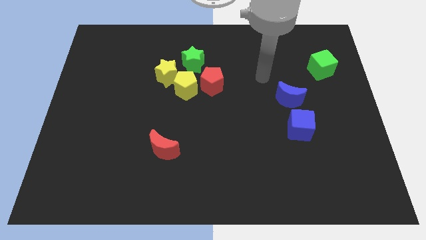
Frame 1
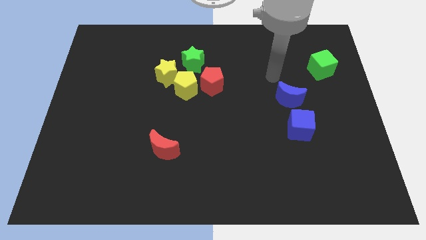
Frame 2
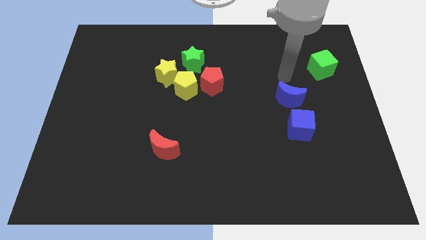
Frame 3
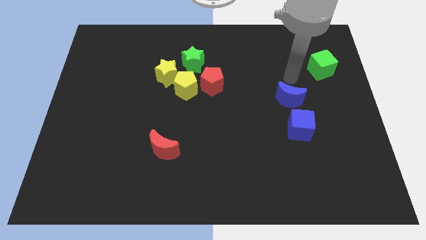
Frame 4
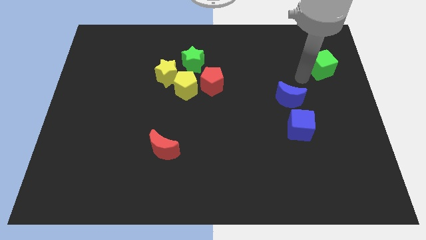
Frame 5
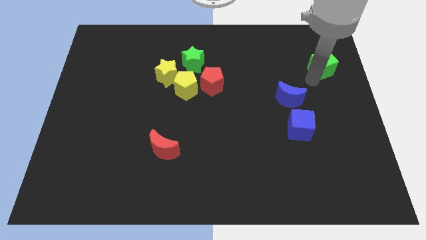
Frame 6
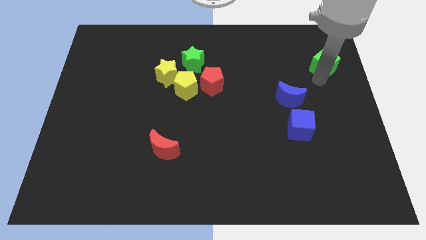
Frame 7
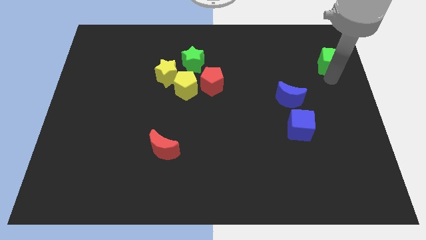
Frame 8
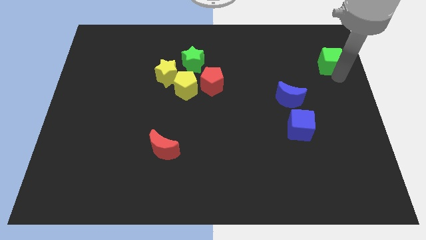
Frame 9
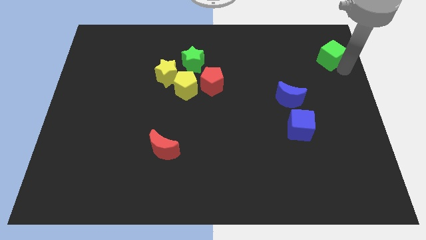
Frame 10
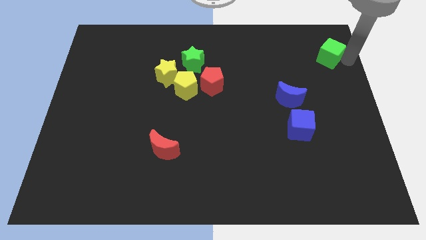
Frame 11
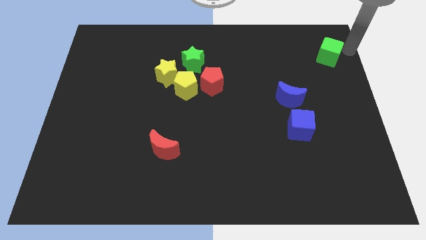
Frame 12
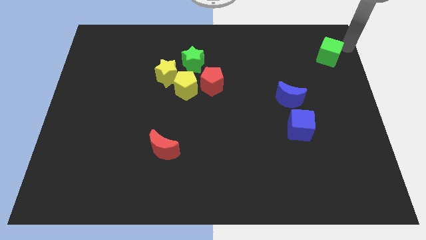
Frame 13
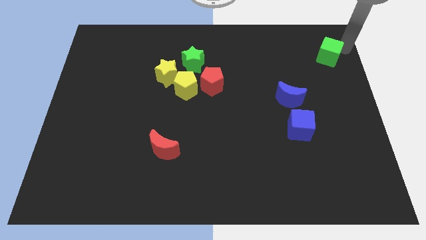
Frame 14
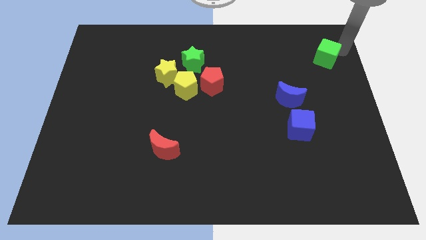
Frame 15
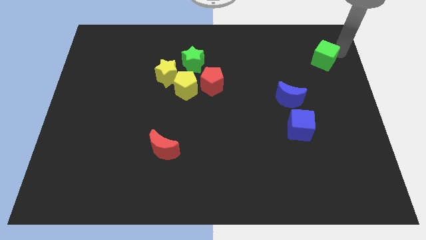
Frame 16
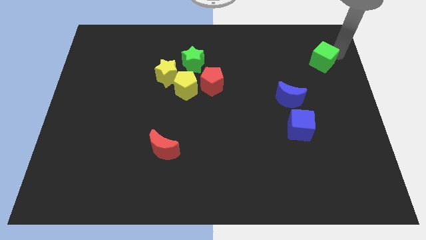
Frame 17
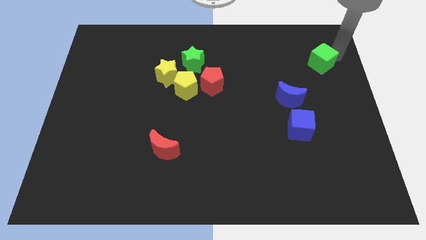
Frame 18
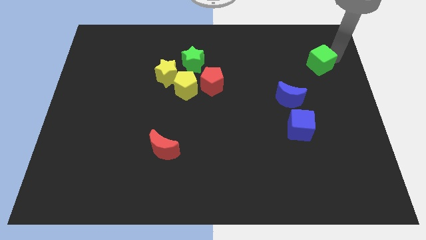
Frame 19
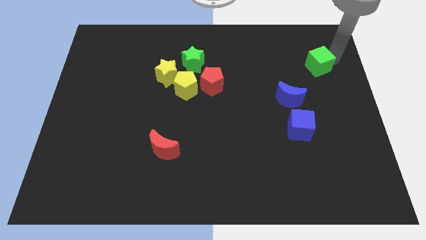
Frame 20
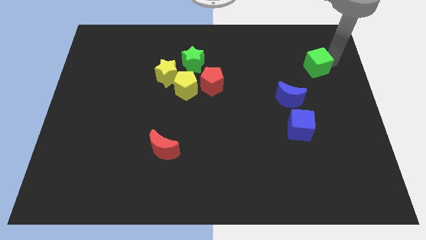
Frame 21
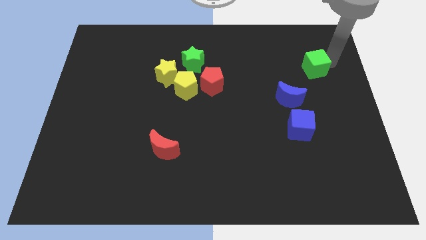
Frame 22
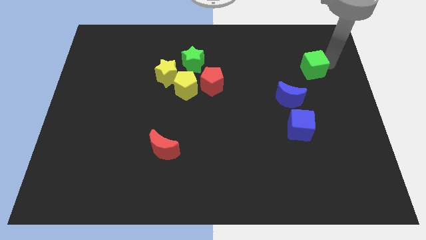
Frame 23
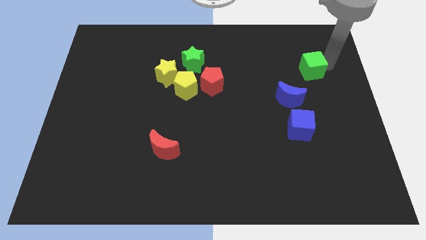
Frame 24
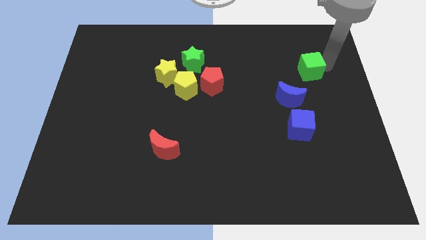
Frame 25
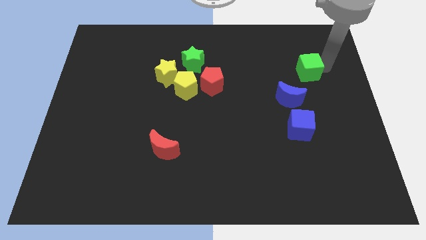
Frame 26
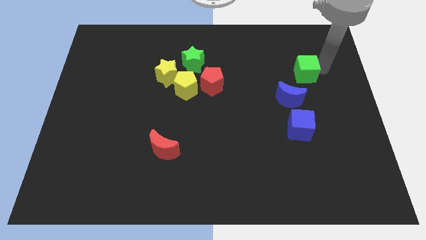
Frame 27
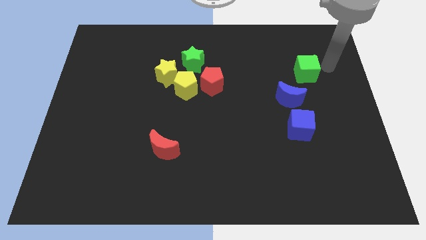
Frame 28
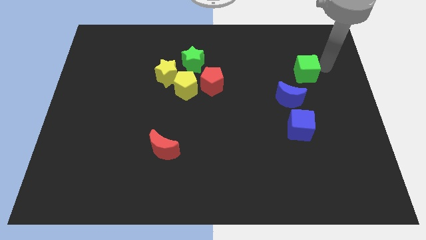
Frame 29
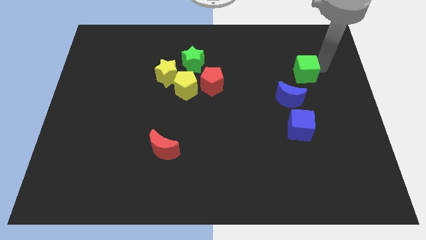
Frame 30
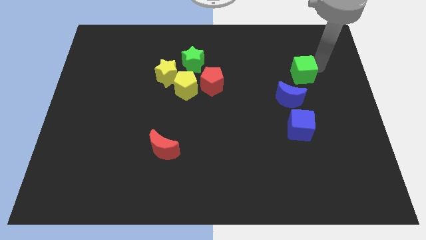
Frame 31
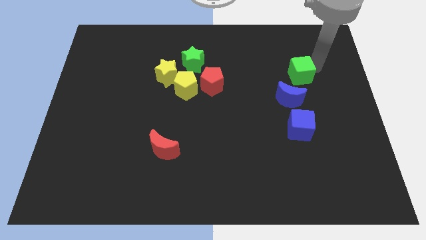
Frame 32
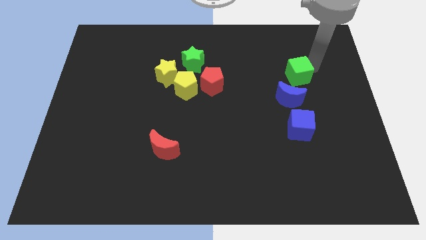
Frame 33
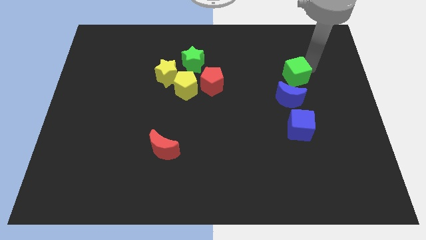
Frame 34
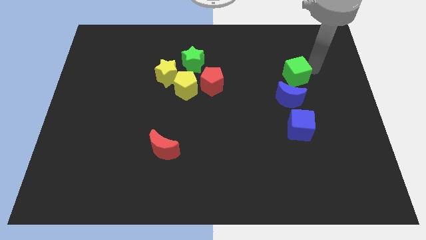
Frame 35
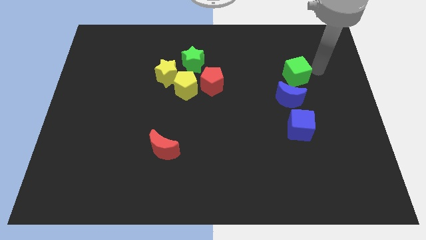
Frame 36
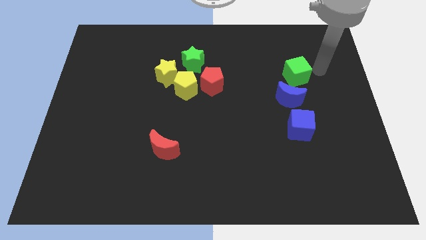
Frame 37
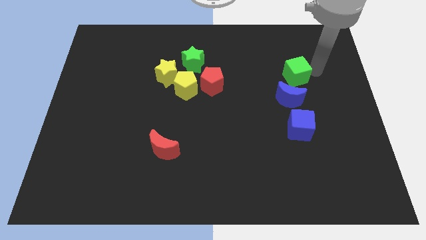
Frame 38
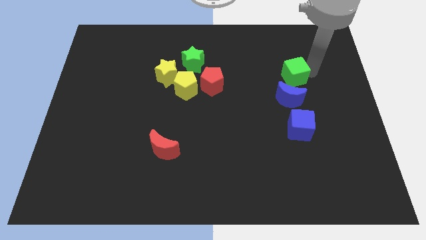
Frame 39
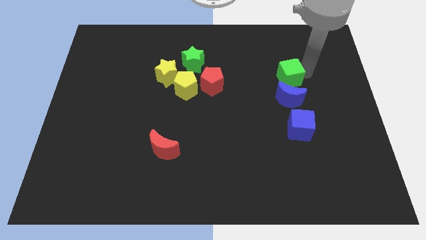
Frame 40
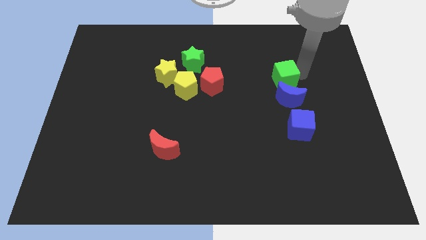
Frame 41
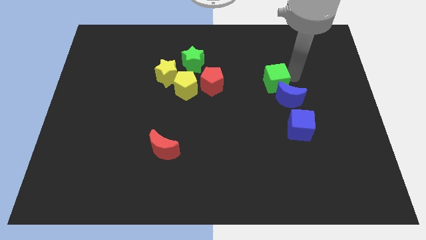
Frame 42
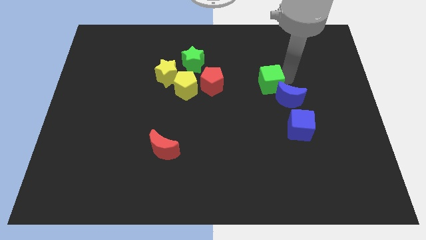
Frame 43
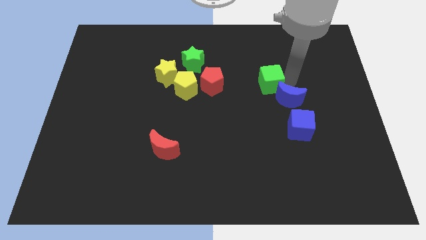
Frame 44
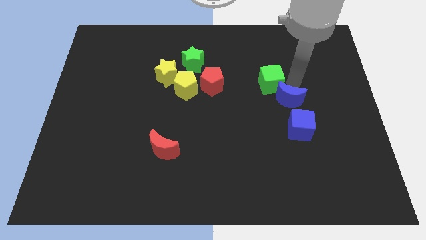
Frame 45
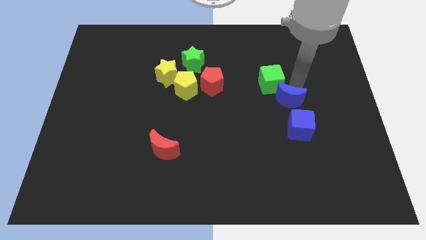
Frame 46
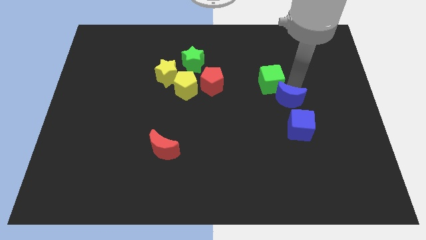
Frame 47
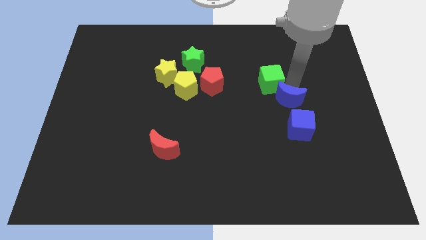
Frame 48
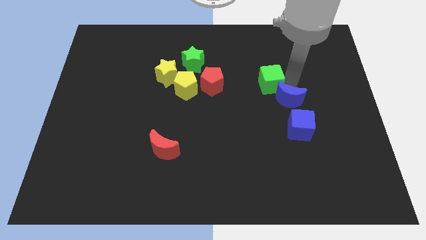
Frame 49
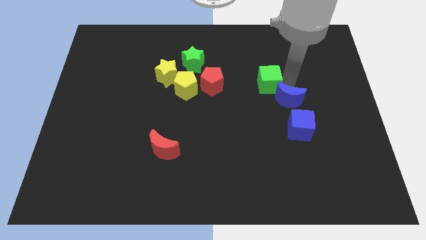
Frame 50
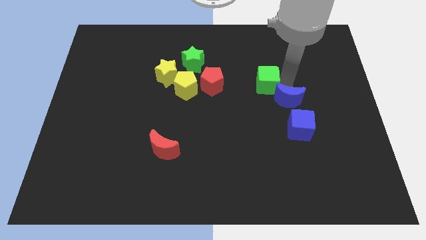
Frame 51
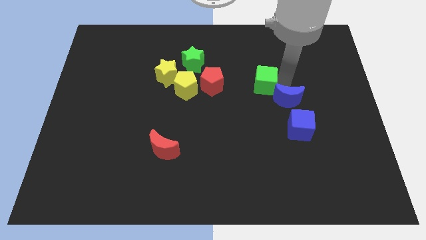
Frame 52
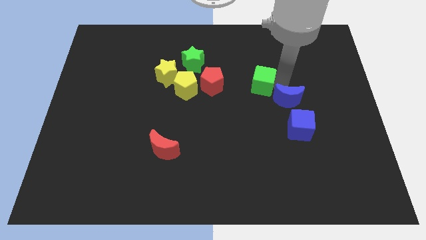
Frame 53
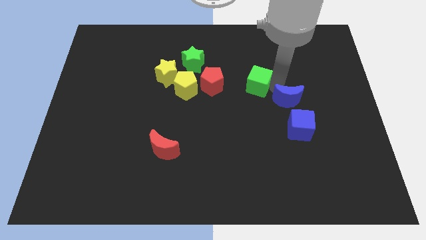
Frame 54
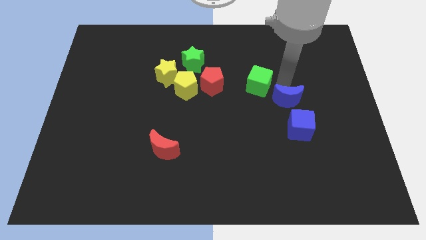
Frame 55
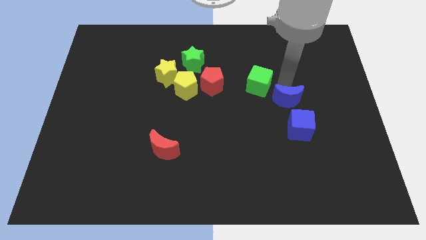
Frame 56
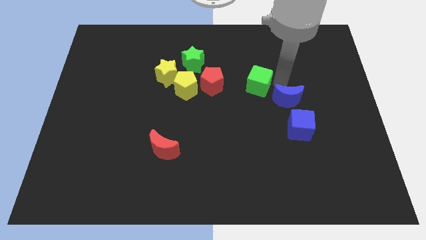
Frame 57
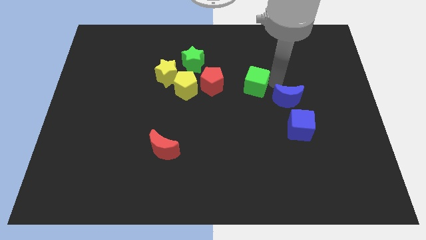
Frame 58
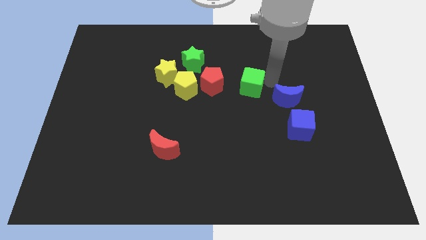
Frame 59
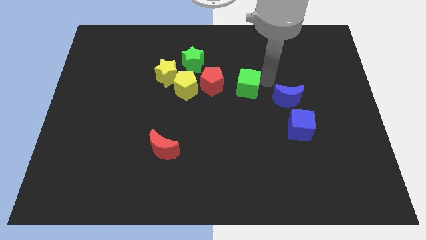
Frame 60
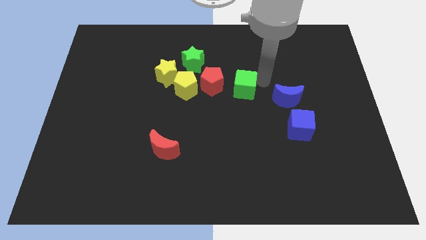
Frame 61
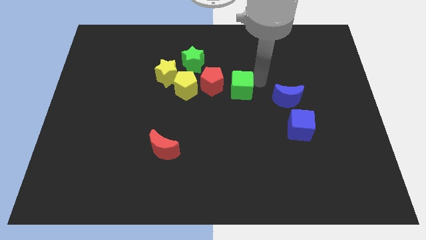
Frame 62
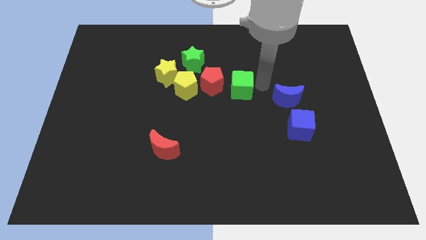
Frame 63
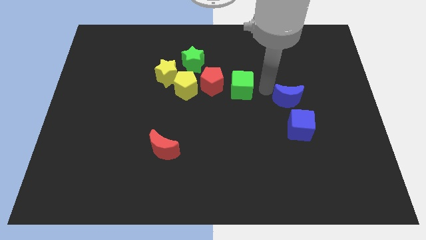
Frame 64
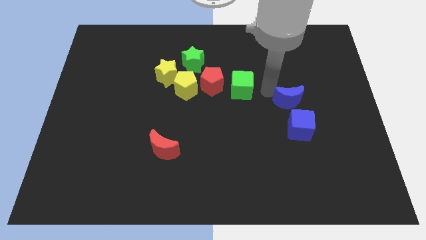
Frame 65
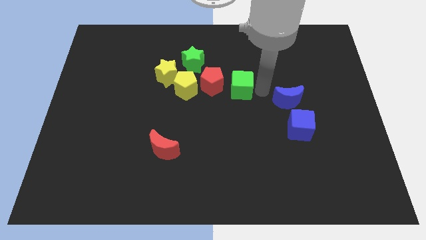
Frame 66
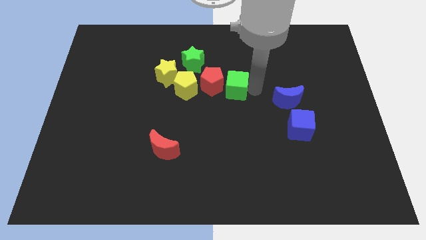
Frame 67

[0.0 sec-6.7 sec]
move the green cube next to the red pentagon
